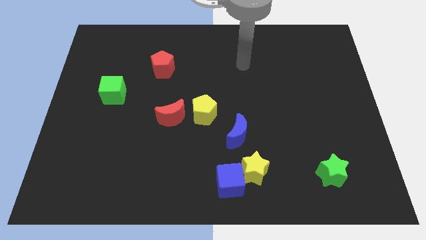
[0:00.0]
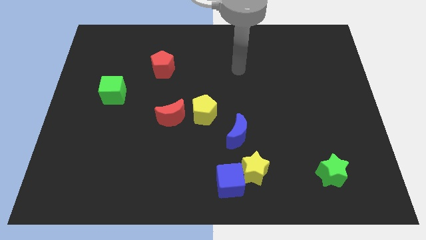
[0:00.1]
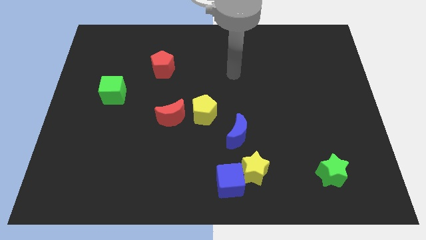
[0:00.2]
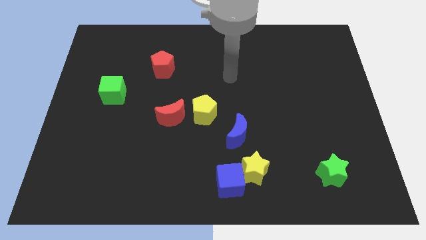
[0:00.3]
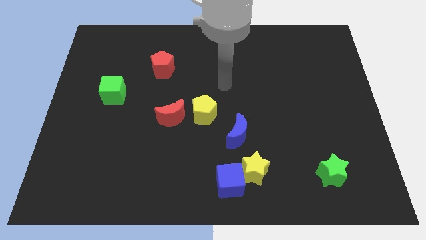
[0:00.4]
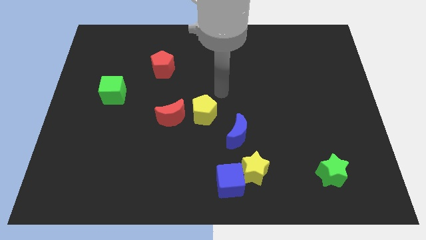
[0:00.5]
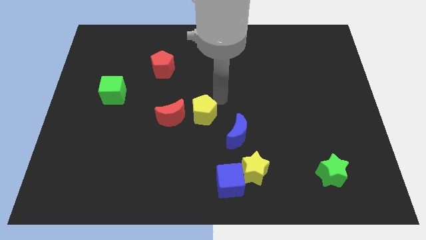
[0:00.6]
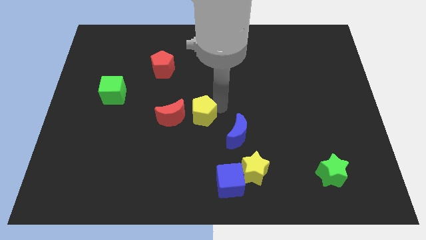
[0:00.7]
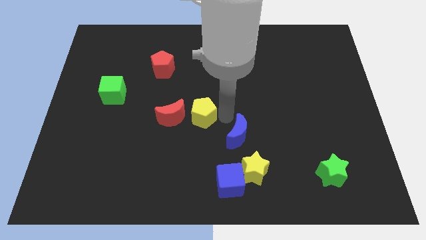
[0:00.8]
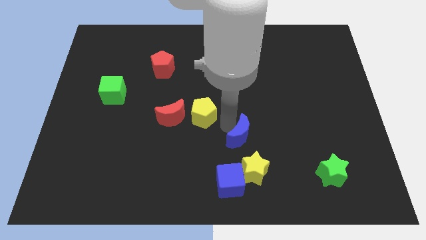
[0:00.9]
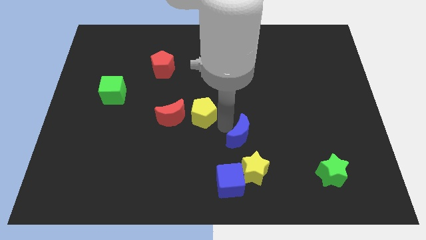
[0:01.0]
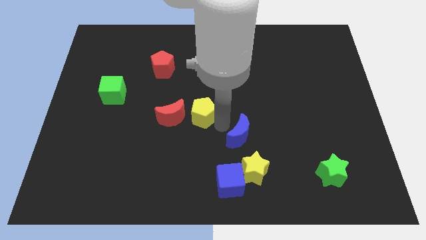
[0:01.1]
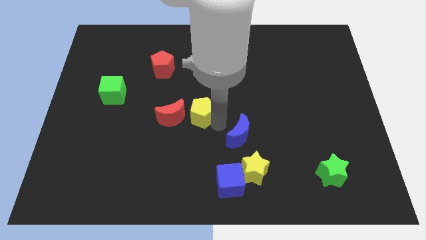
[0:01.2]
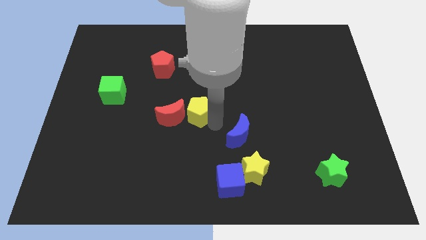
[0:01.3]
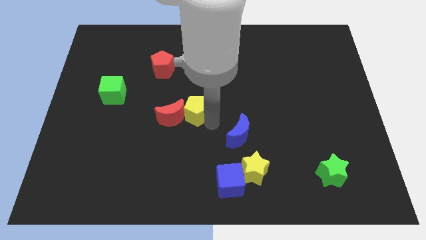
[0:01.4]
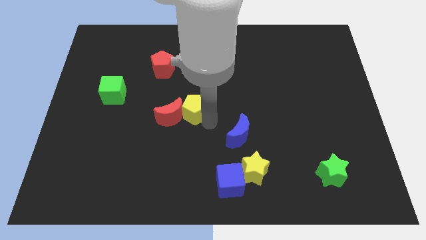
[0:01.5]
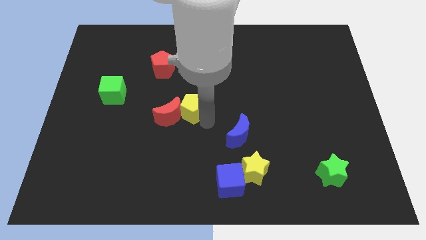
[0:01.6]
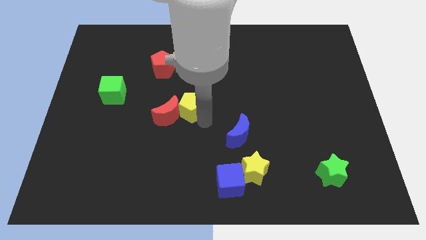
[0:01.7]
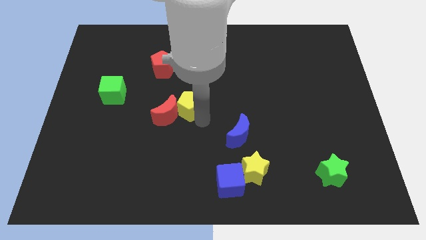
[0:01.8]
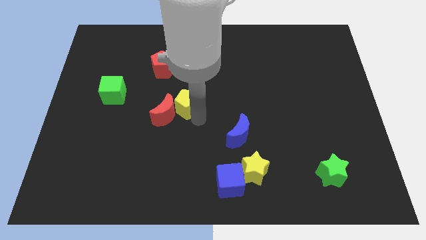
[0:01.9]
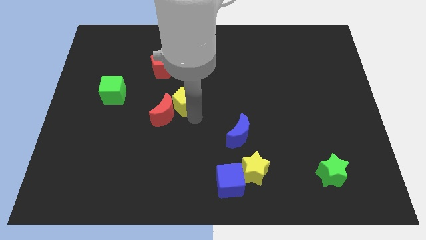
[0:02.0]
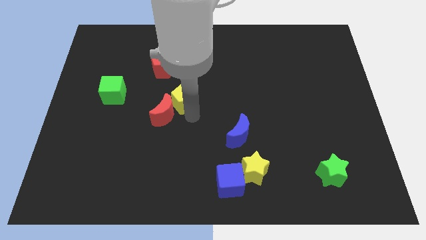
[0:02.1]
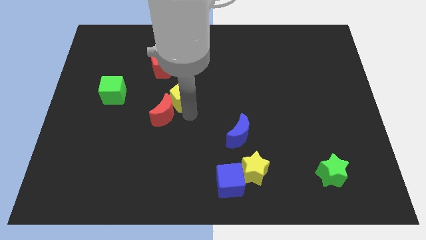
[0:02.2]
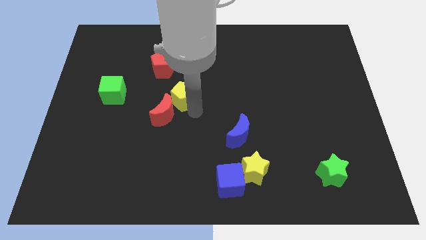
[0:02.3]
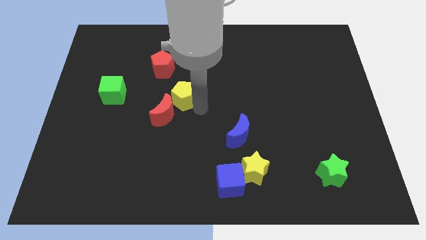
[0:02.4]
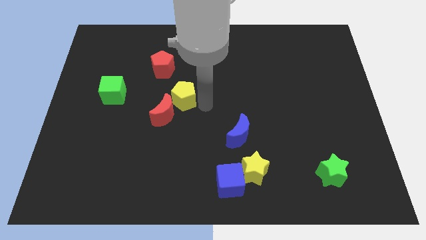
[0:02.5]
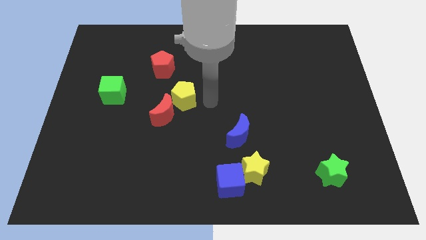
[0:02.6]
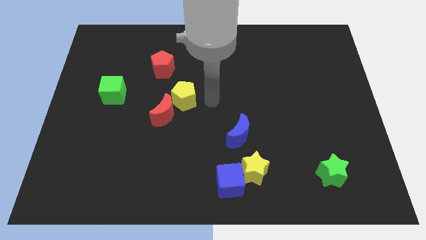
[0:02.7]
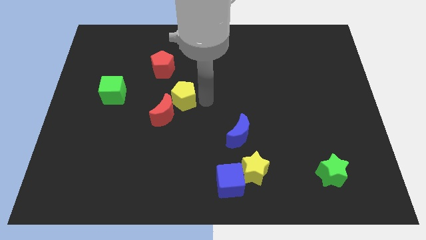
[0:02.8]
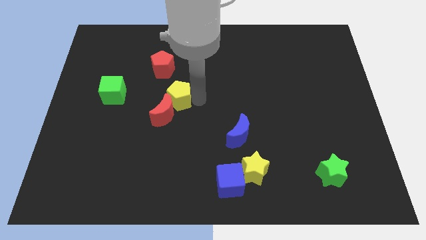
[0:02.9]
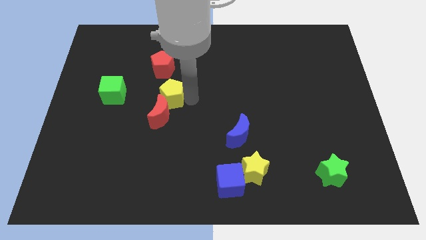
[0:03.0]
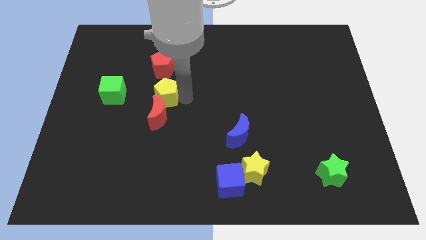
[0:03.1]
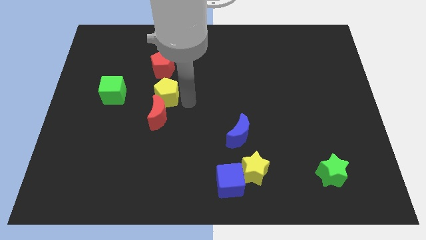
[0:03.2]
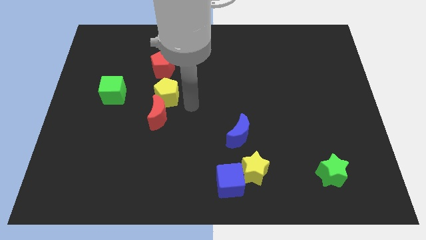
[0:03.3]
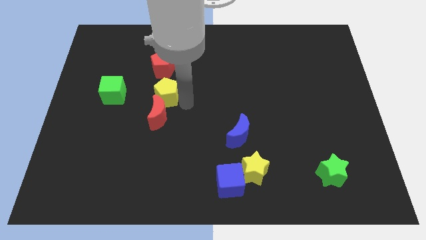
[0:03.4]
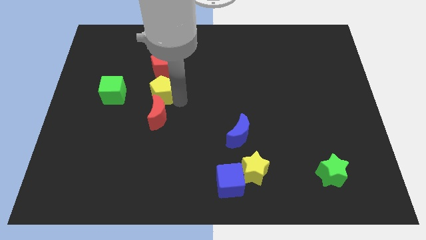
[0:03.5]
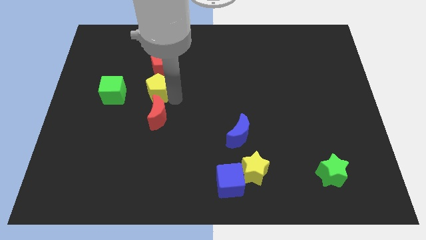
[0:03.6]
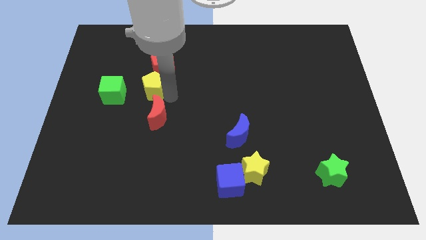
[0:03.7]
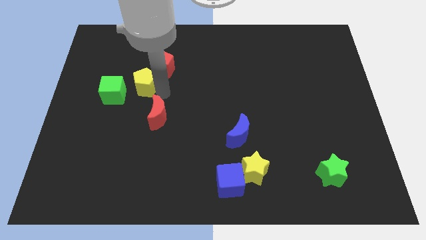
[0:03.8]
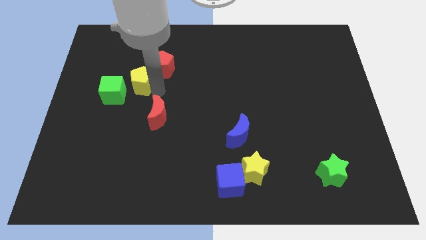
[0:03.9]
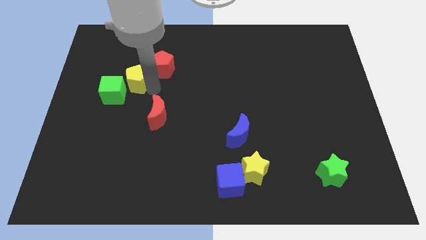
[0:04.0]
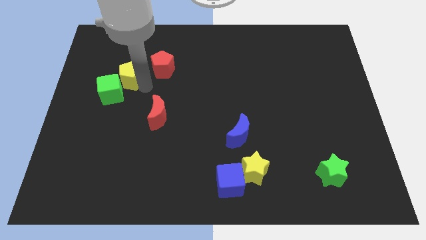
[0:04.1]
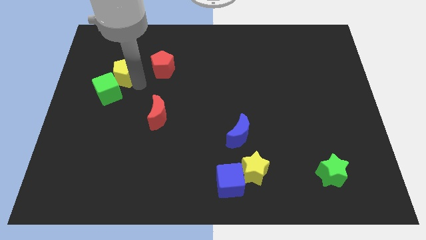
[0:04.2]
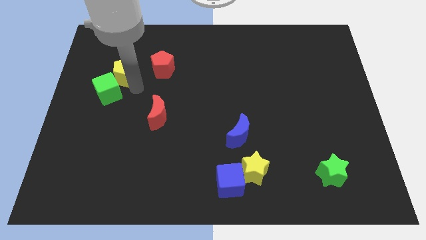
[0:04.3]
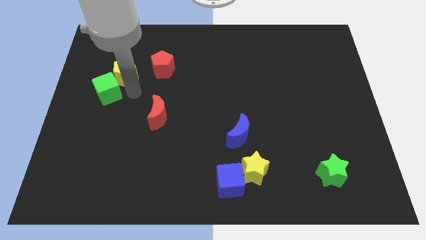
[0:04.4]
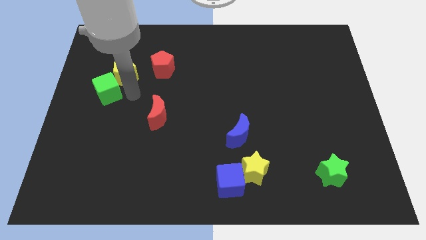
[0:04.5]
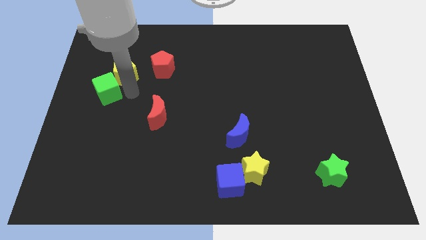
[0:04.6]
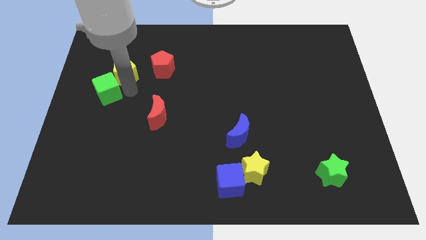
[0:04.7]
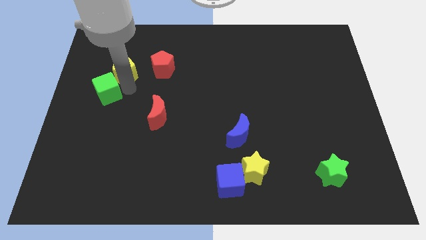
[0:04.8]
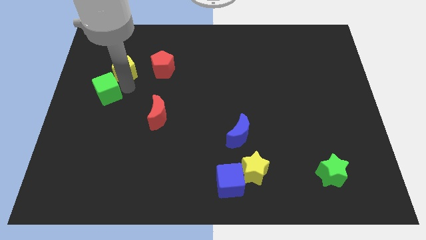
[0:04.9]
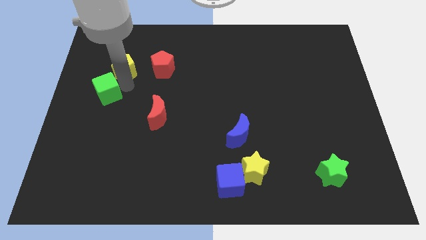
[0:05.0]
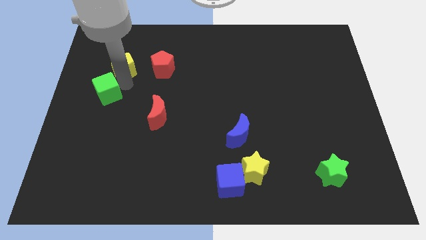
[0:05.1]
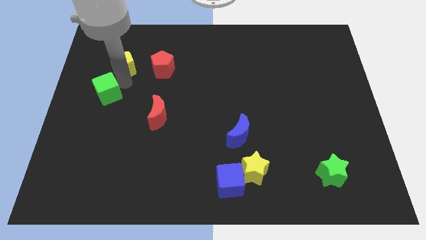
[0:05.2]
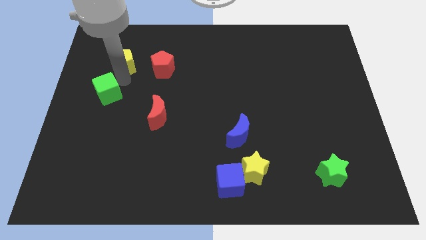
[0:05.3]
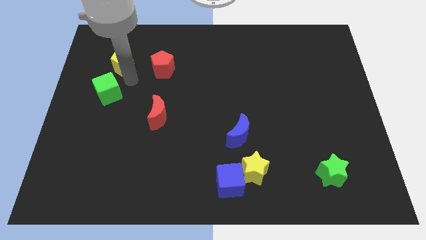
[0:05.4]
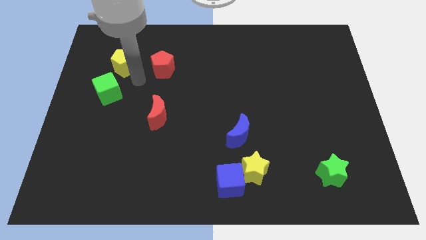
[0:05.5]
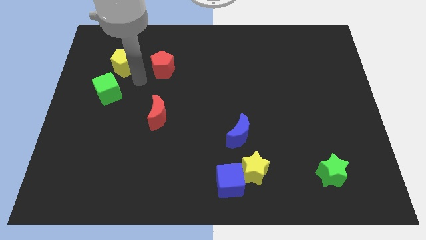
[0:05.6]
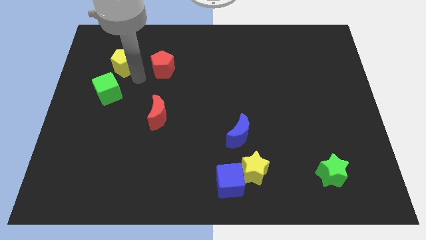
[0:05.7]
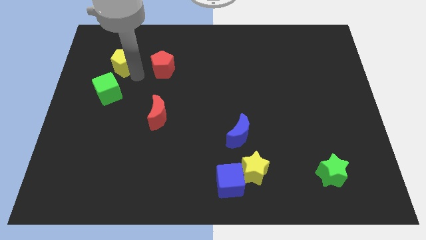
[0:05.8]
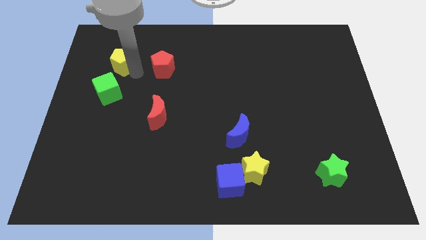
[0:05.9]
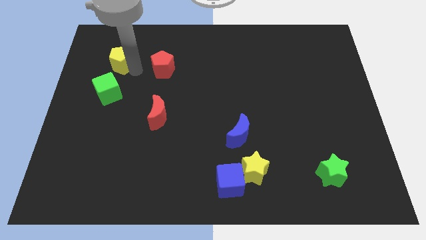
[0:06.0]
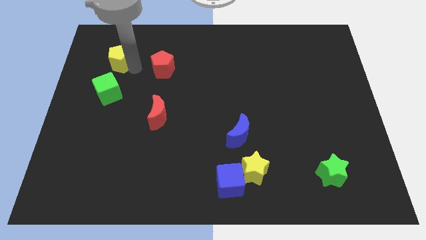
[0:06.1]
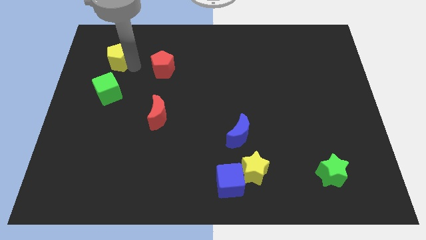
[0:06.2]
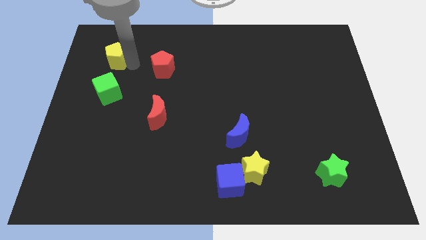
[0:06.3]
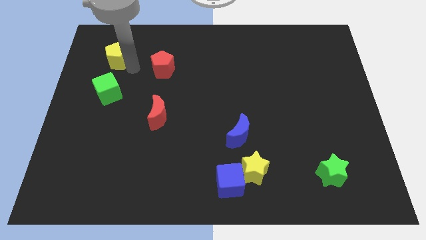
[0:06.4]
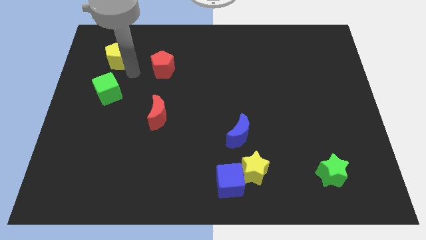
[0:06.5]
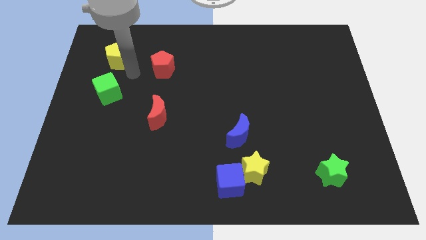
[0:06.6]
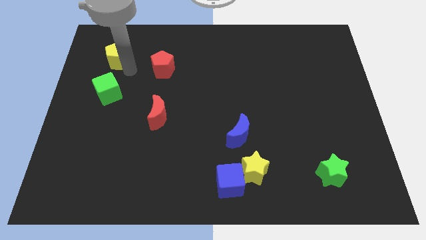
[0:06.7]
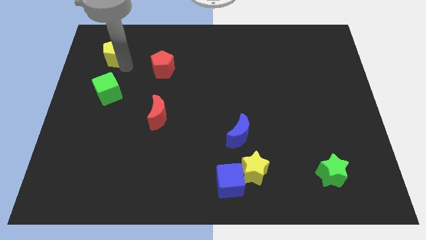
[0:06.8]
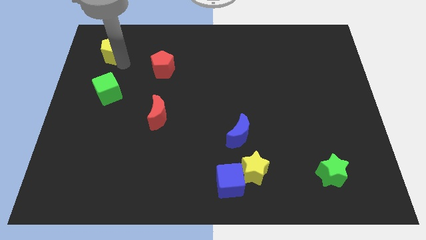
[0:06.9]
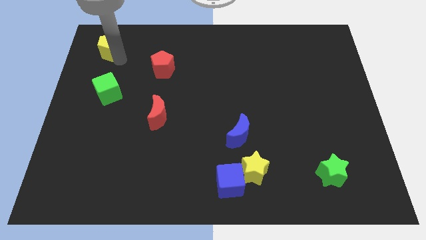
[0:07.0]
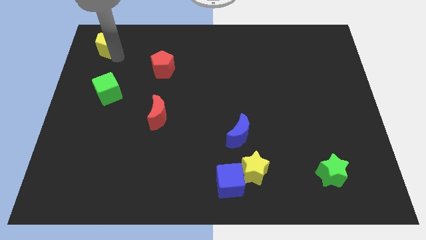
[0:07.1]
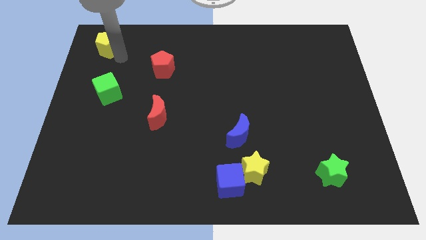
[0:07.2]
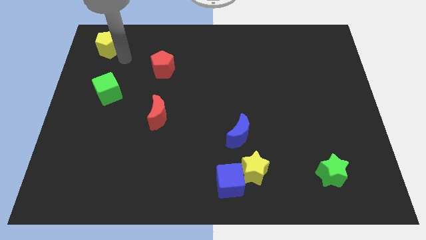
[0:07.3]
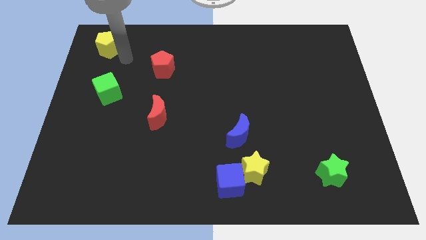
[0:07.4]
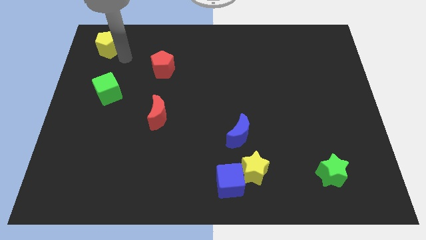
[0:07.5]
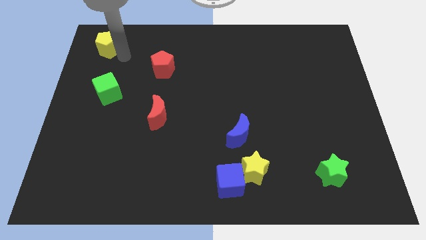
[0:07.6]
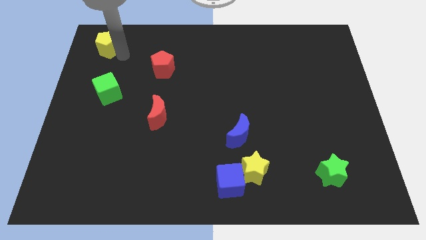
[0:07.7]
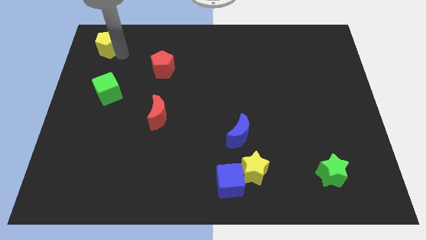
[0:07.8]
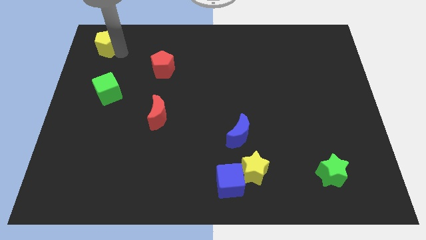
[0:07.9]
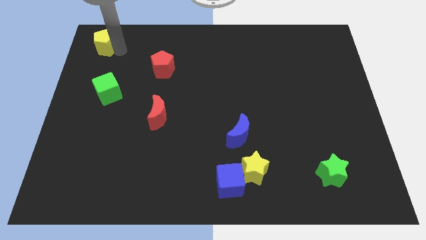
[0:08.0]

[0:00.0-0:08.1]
put the yellow pentagon to the top left corner
